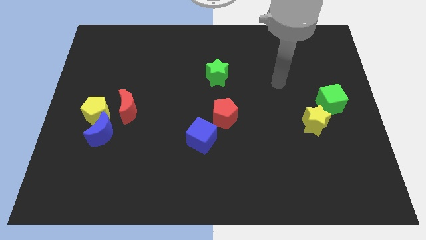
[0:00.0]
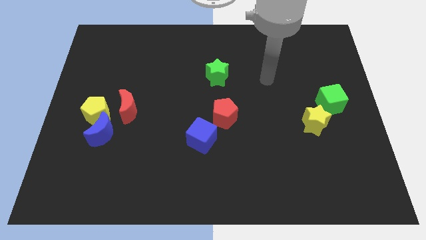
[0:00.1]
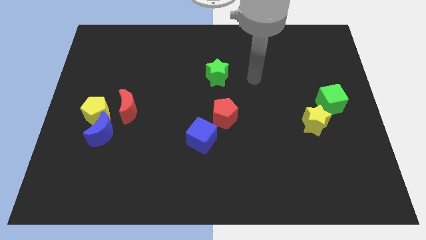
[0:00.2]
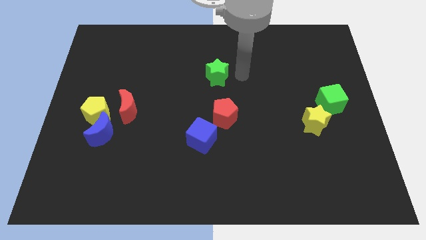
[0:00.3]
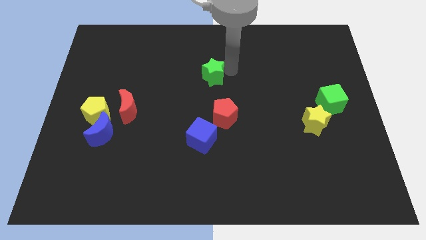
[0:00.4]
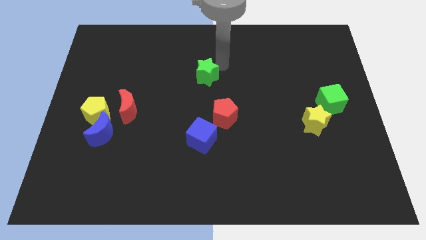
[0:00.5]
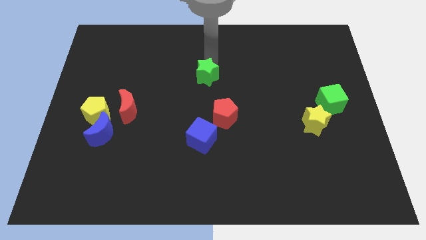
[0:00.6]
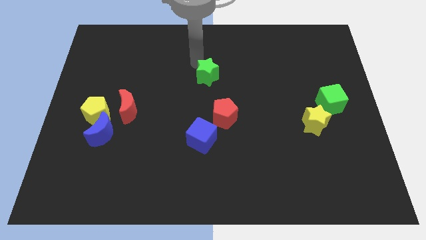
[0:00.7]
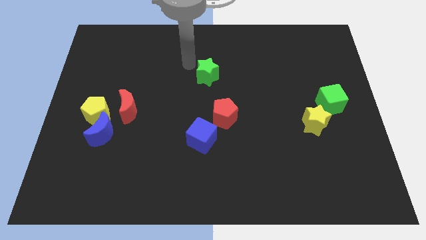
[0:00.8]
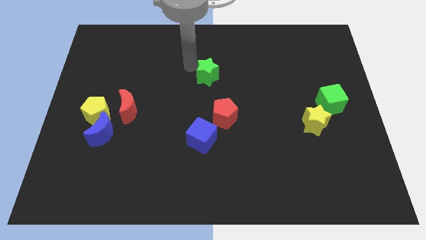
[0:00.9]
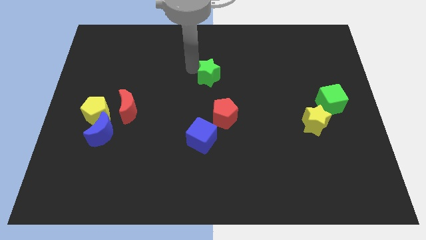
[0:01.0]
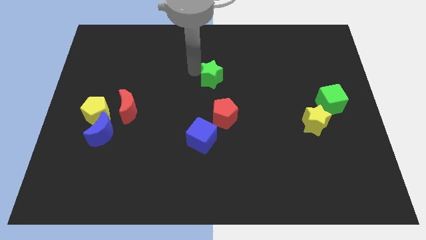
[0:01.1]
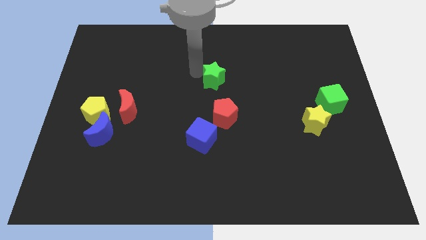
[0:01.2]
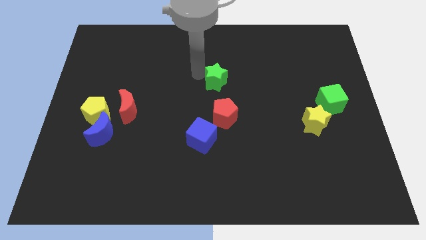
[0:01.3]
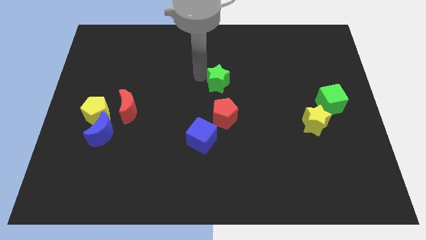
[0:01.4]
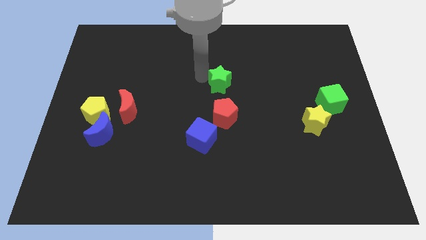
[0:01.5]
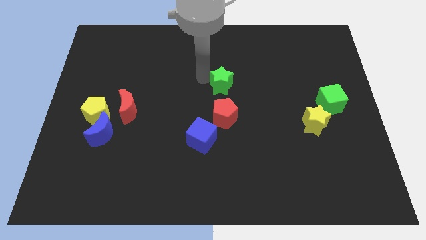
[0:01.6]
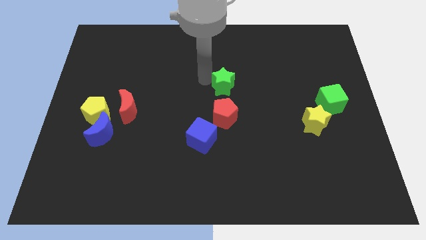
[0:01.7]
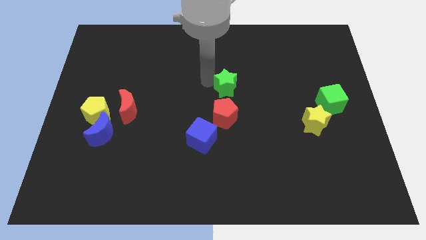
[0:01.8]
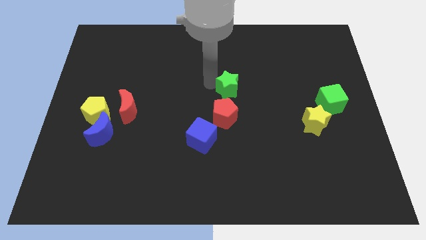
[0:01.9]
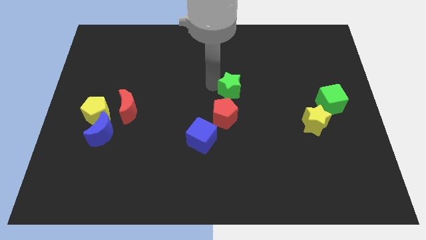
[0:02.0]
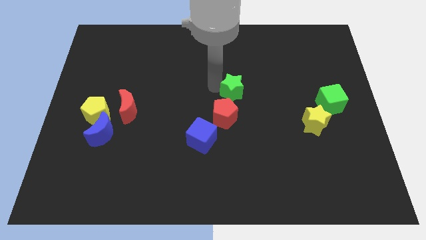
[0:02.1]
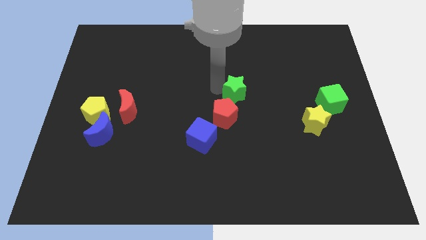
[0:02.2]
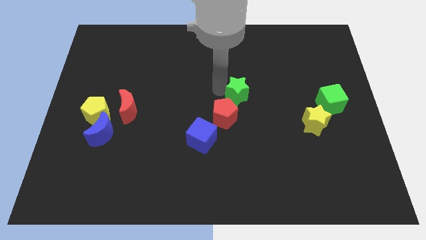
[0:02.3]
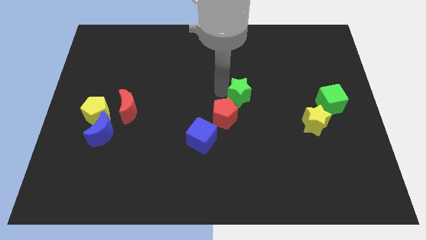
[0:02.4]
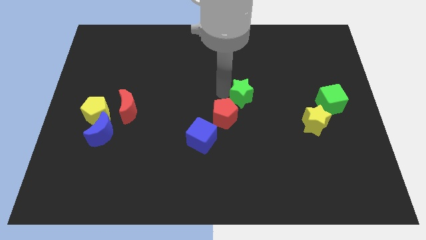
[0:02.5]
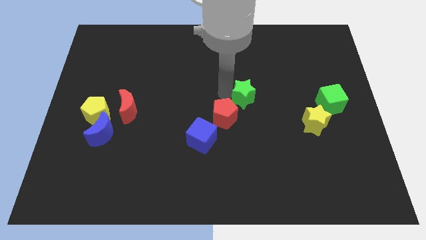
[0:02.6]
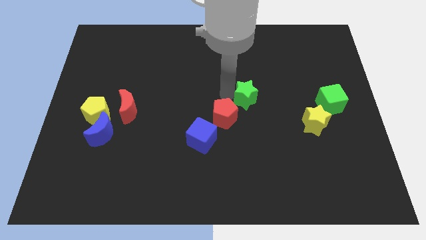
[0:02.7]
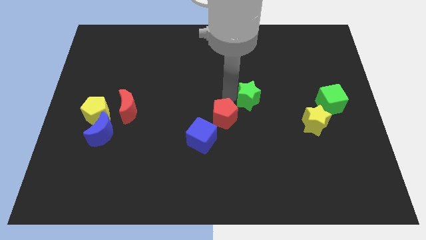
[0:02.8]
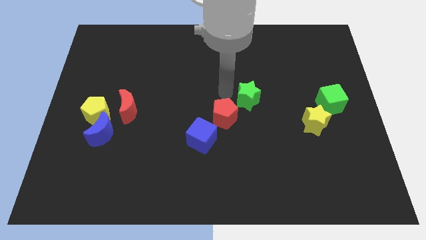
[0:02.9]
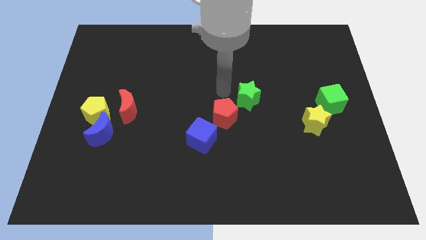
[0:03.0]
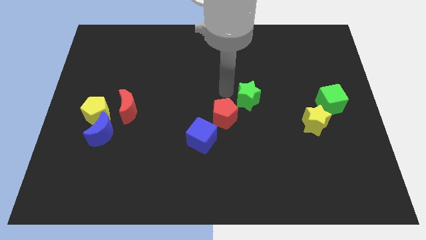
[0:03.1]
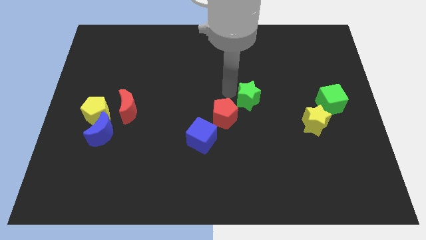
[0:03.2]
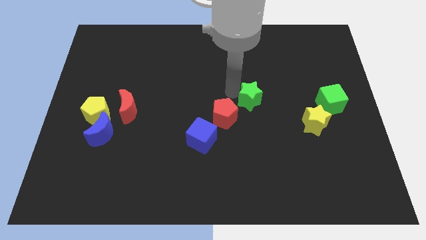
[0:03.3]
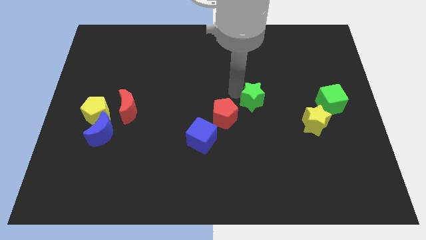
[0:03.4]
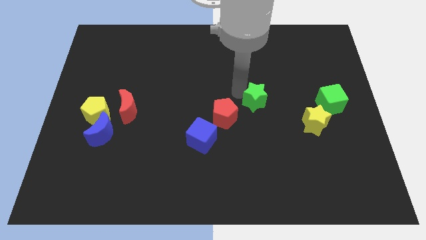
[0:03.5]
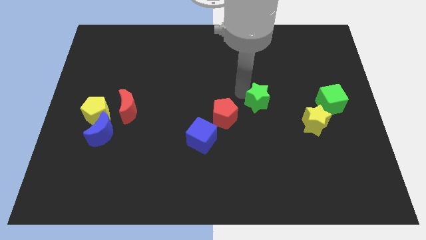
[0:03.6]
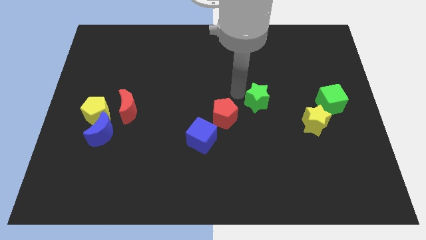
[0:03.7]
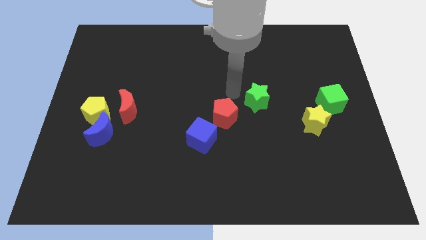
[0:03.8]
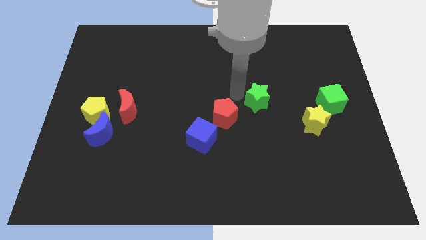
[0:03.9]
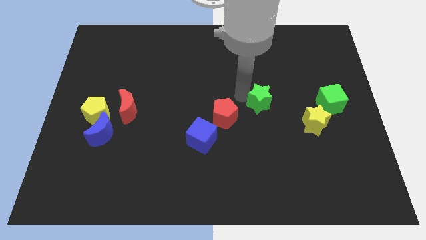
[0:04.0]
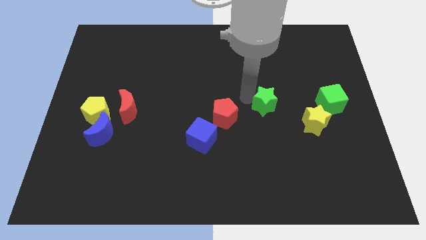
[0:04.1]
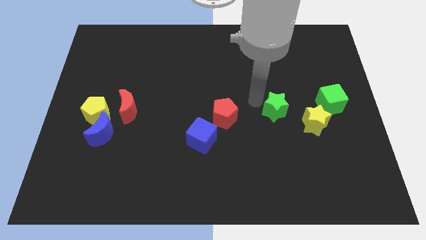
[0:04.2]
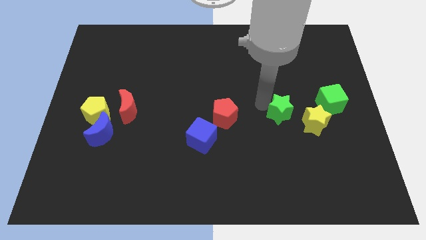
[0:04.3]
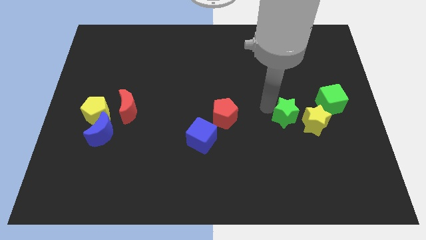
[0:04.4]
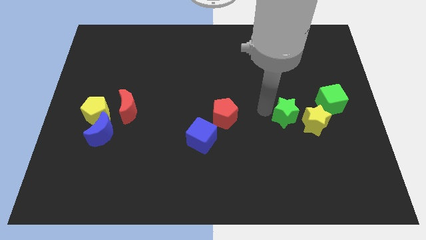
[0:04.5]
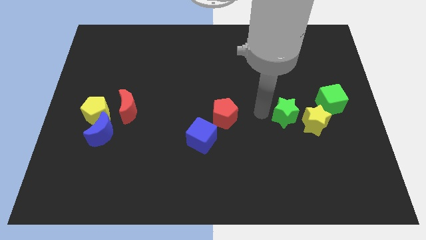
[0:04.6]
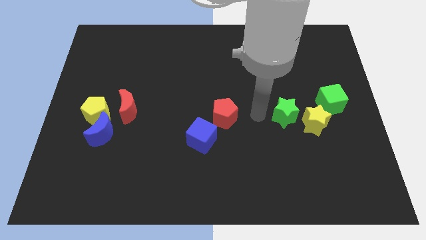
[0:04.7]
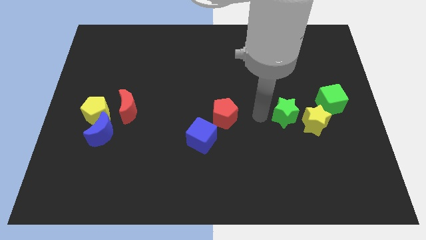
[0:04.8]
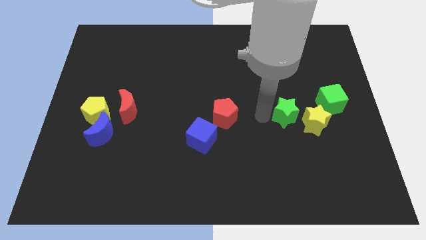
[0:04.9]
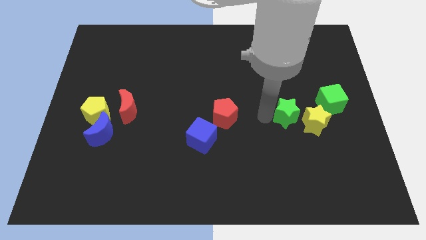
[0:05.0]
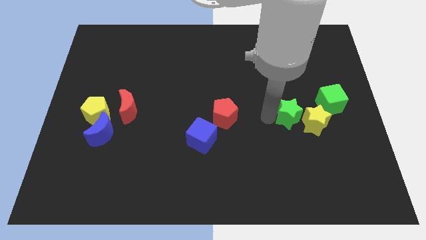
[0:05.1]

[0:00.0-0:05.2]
move the green star towards the yellow star

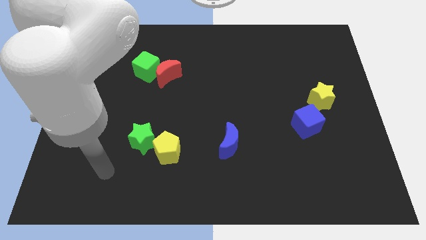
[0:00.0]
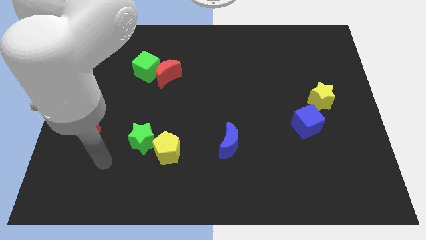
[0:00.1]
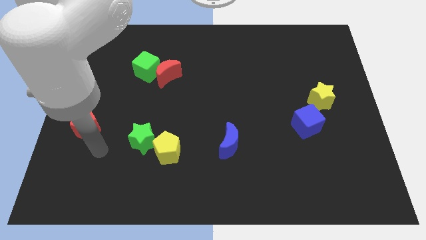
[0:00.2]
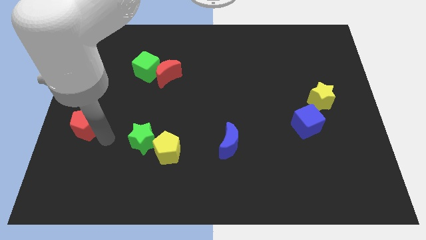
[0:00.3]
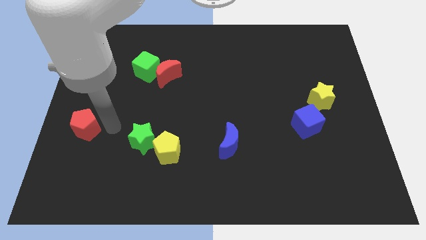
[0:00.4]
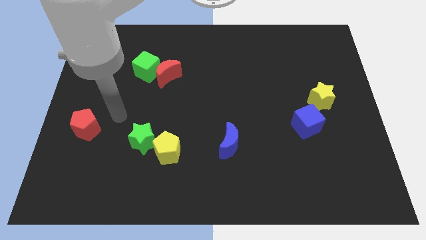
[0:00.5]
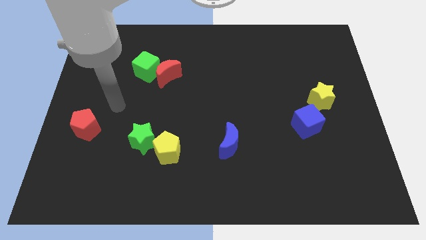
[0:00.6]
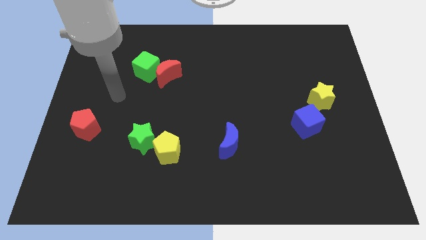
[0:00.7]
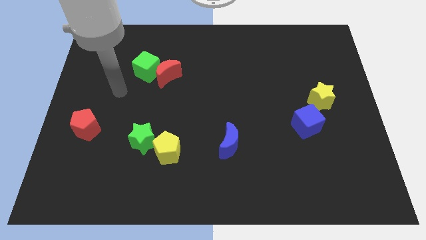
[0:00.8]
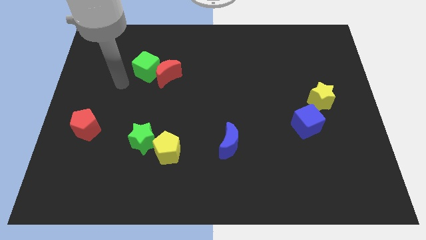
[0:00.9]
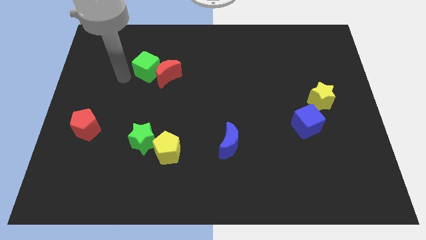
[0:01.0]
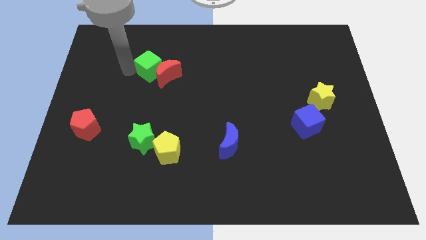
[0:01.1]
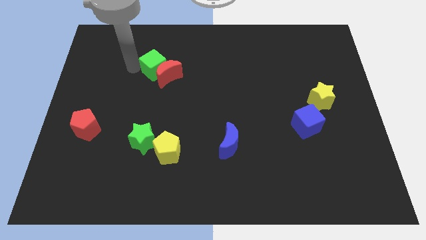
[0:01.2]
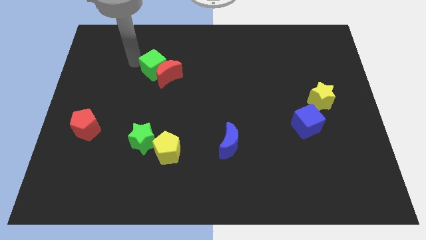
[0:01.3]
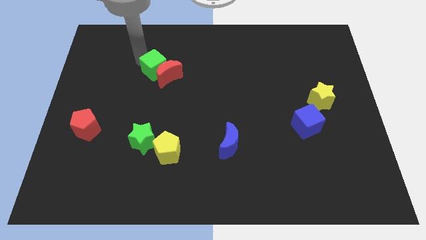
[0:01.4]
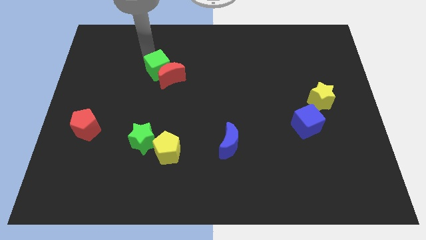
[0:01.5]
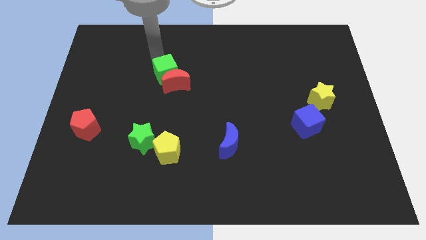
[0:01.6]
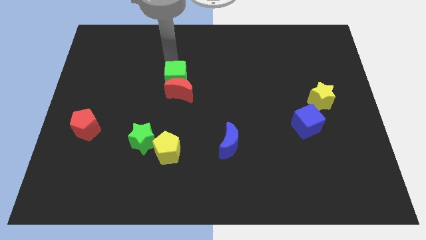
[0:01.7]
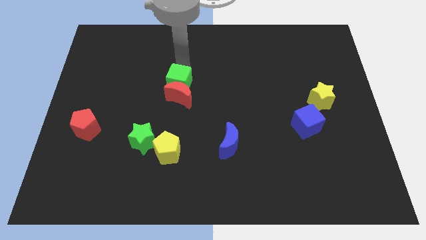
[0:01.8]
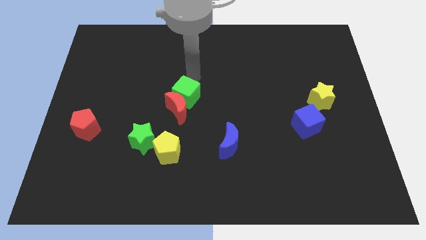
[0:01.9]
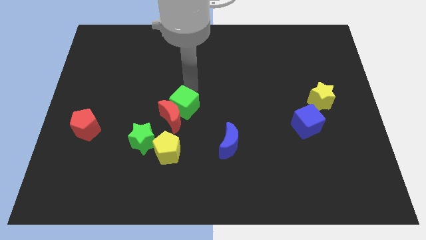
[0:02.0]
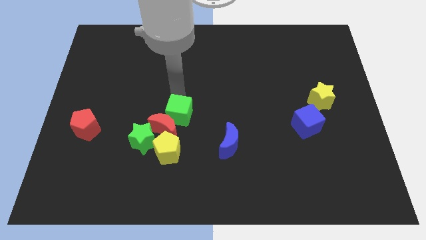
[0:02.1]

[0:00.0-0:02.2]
slide the red moon close to the yellow pentagon
